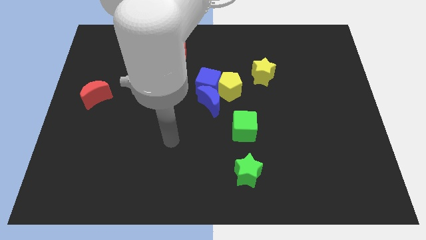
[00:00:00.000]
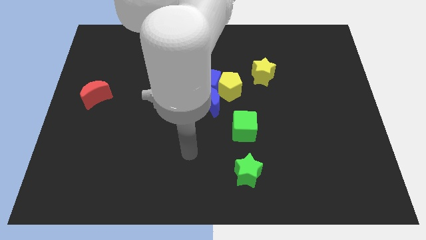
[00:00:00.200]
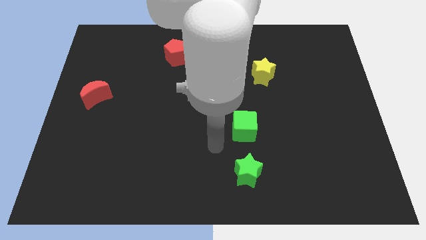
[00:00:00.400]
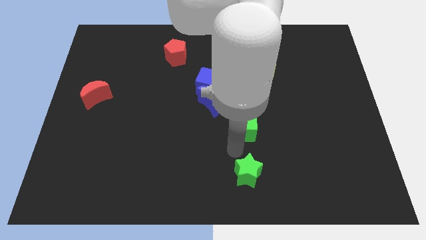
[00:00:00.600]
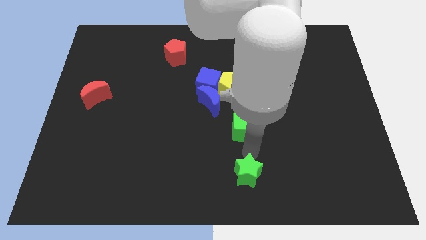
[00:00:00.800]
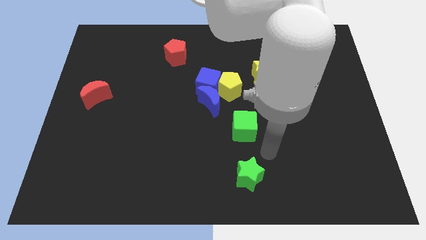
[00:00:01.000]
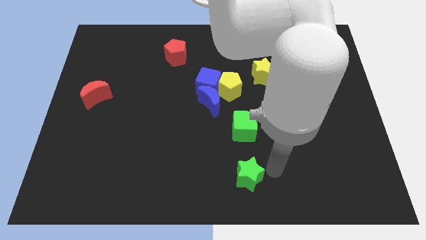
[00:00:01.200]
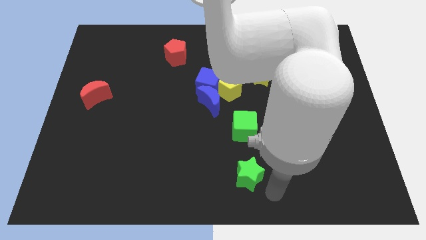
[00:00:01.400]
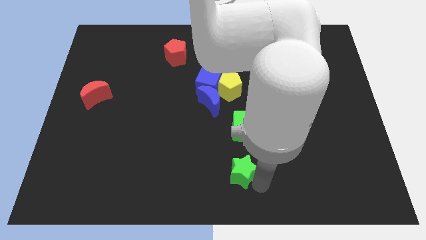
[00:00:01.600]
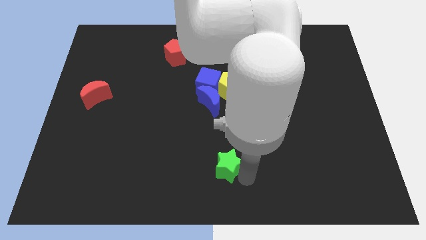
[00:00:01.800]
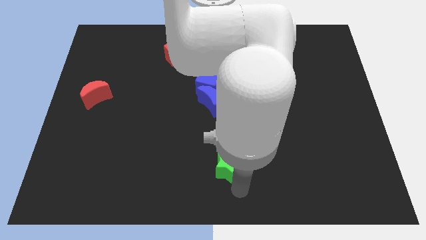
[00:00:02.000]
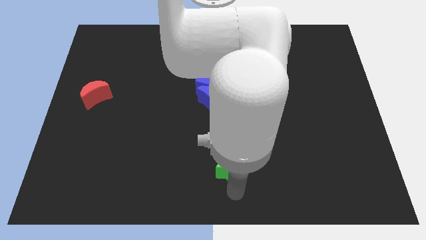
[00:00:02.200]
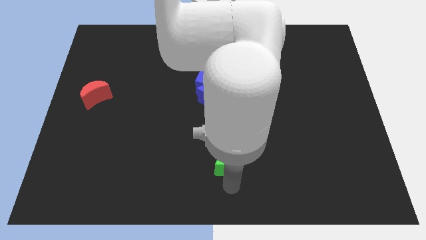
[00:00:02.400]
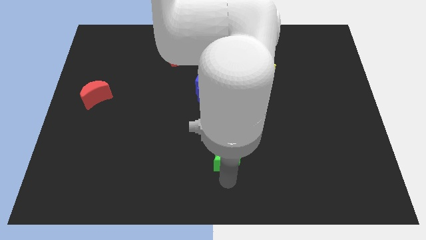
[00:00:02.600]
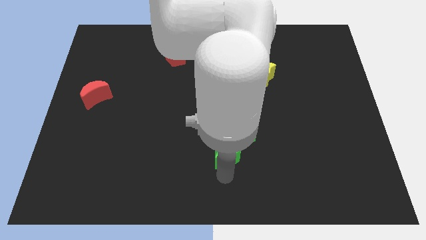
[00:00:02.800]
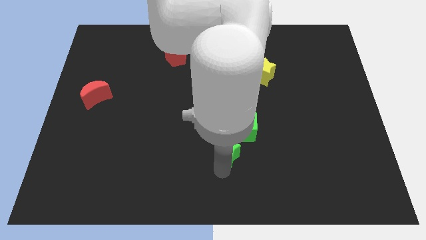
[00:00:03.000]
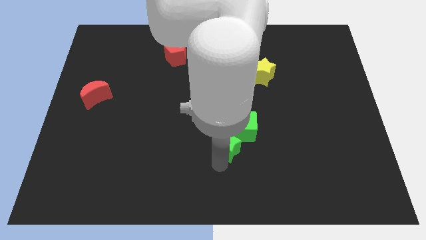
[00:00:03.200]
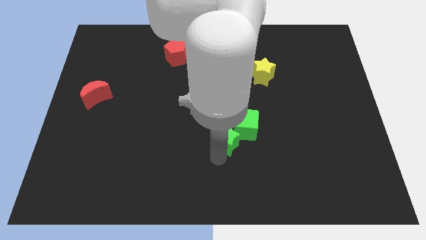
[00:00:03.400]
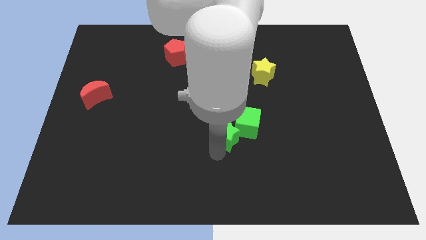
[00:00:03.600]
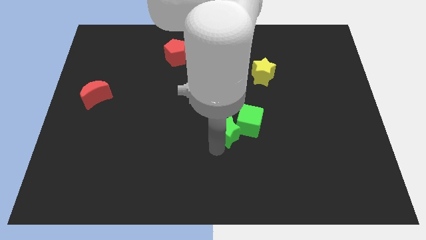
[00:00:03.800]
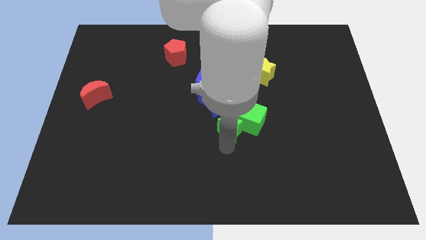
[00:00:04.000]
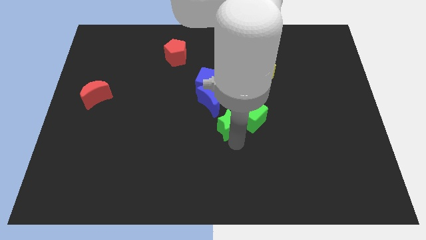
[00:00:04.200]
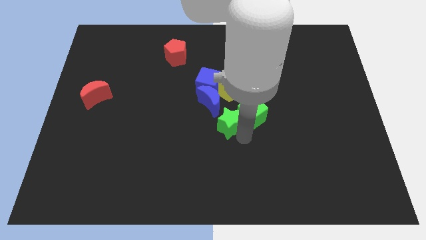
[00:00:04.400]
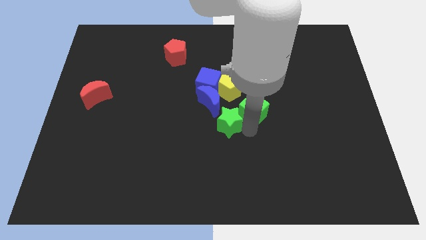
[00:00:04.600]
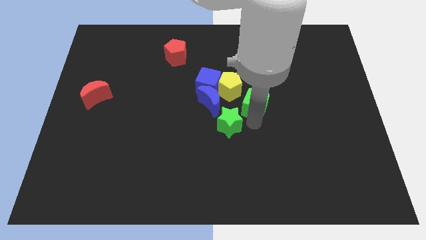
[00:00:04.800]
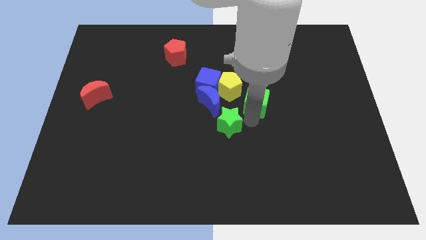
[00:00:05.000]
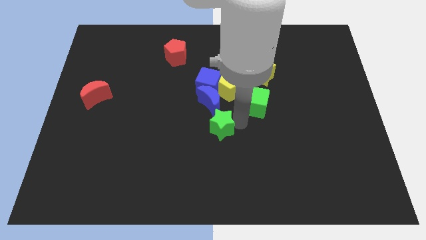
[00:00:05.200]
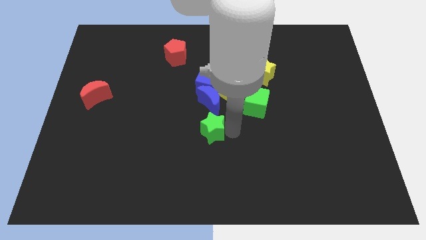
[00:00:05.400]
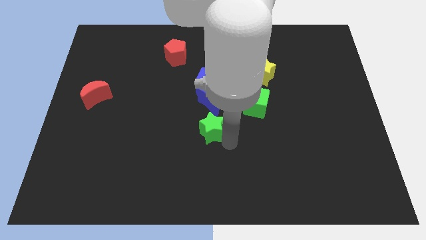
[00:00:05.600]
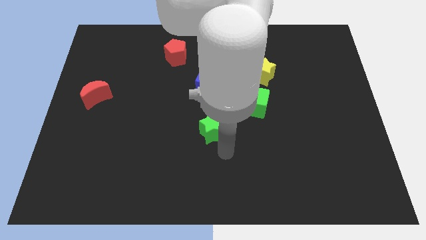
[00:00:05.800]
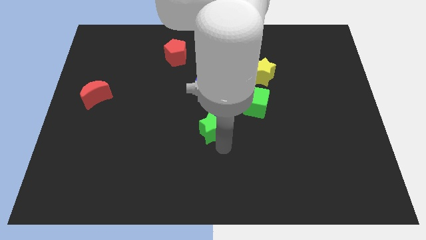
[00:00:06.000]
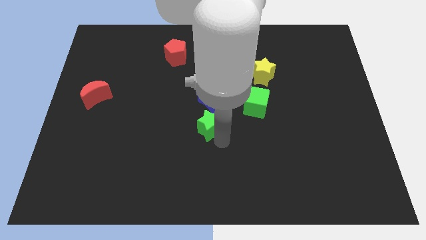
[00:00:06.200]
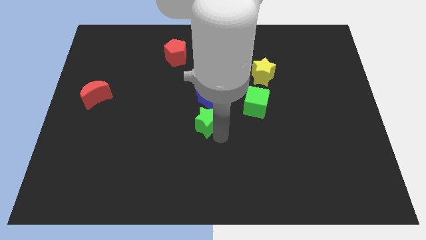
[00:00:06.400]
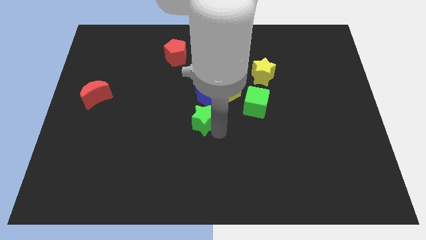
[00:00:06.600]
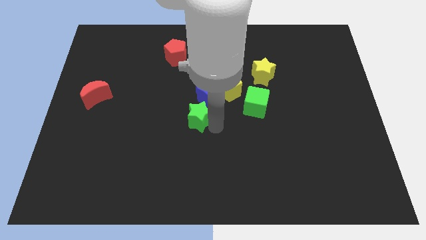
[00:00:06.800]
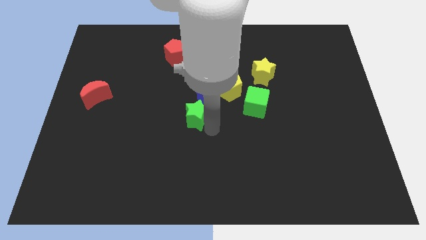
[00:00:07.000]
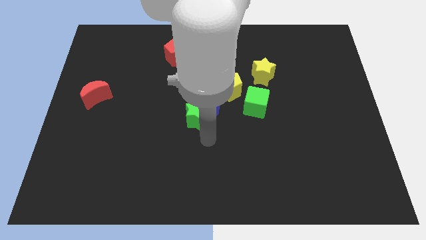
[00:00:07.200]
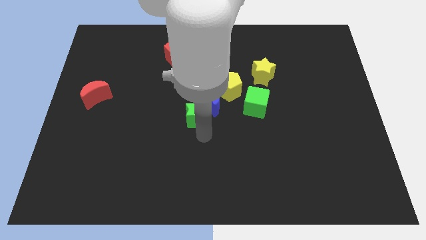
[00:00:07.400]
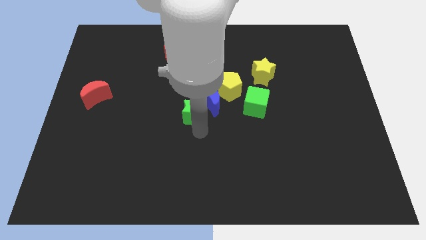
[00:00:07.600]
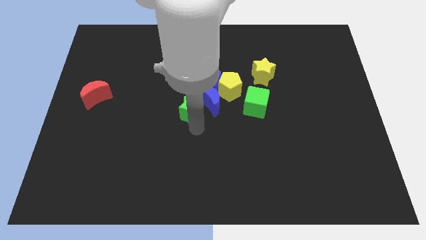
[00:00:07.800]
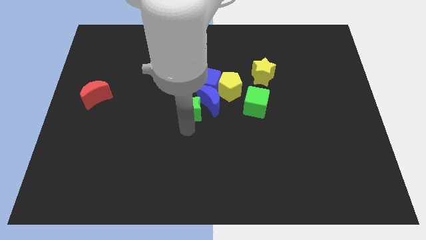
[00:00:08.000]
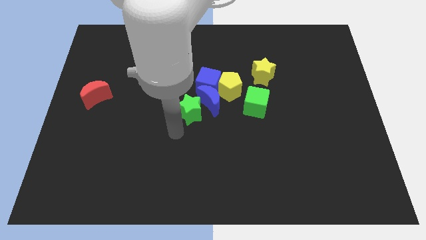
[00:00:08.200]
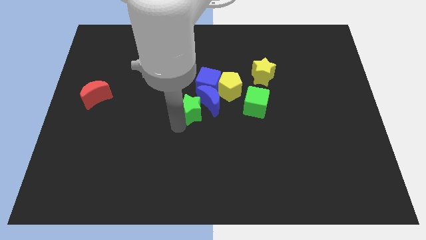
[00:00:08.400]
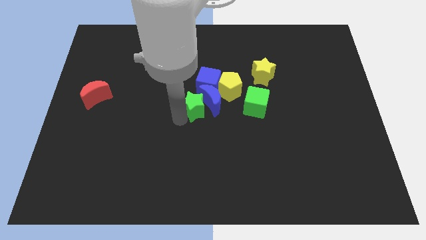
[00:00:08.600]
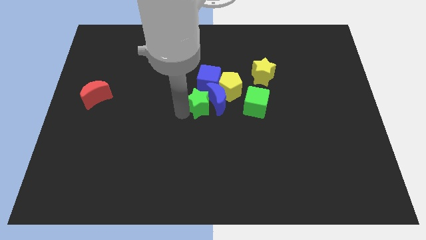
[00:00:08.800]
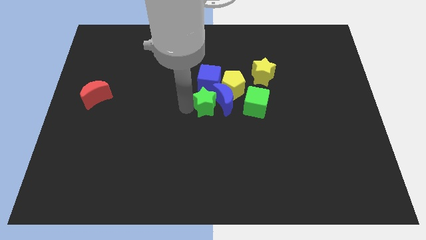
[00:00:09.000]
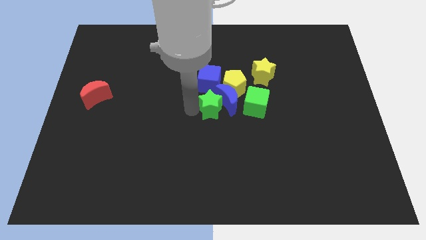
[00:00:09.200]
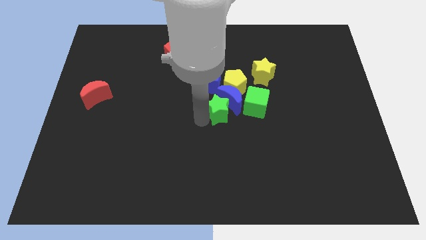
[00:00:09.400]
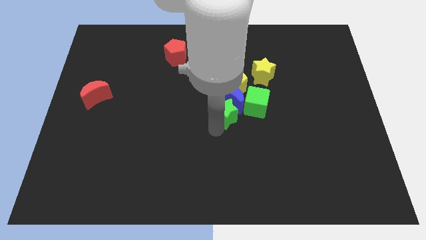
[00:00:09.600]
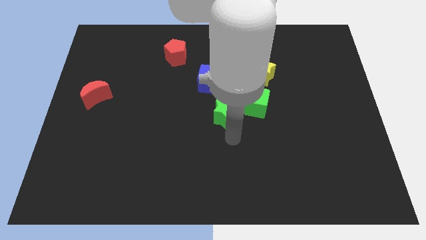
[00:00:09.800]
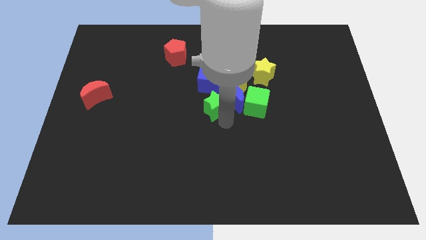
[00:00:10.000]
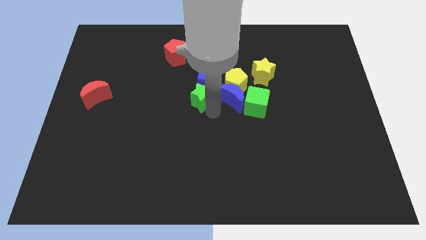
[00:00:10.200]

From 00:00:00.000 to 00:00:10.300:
move the green star to the blue cube

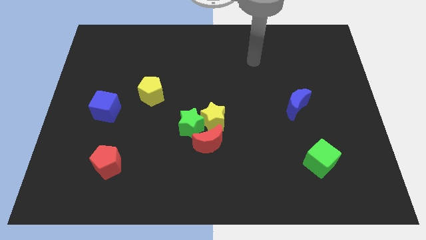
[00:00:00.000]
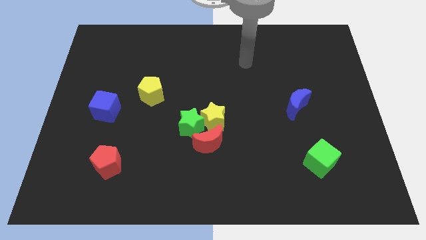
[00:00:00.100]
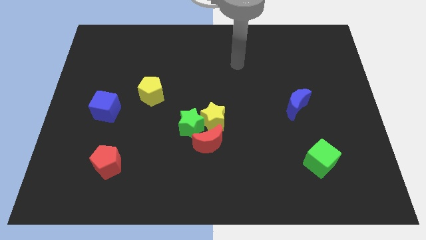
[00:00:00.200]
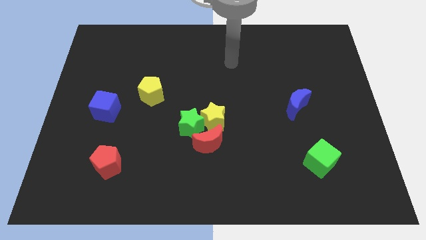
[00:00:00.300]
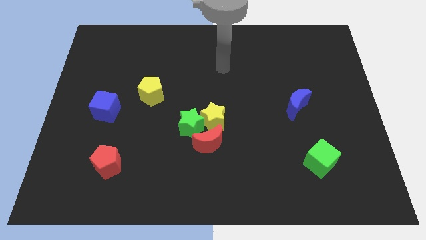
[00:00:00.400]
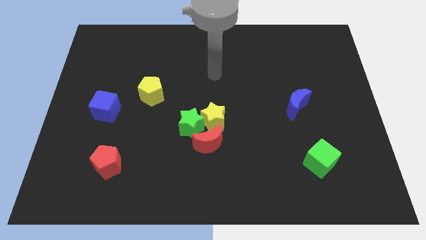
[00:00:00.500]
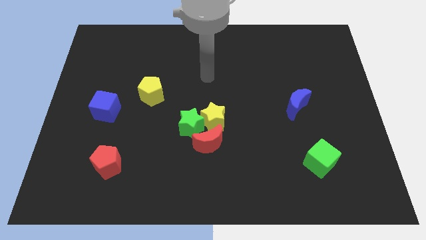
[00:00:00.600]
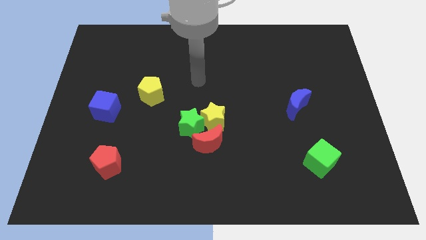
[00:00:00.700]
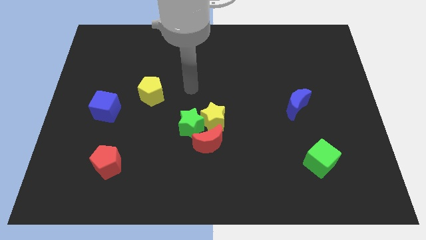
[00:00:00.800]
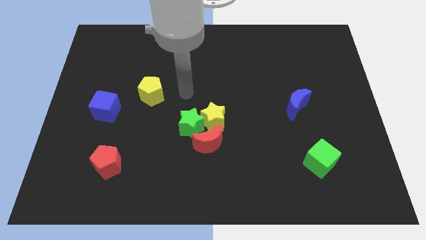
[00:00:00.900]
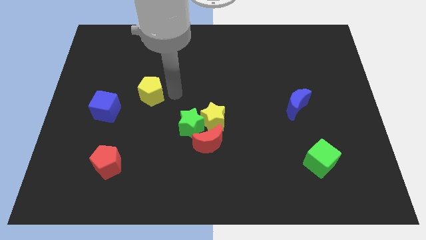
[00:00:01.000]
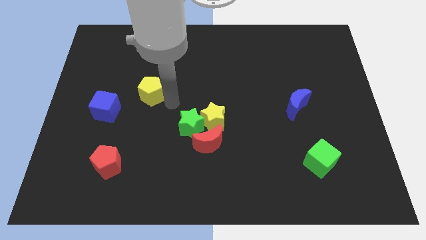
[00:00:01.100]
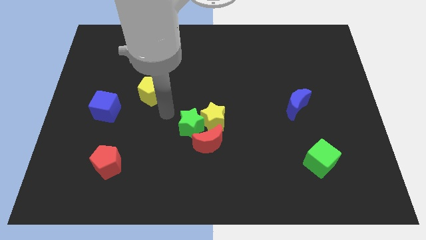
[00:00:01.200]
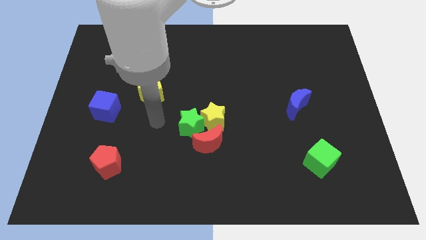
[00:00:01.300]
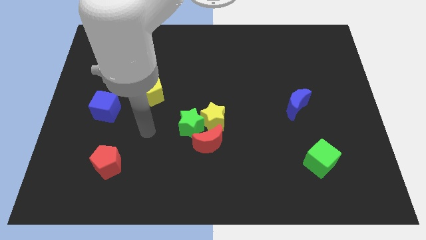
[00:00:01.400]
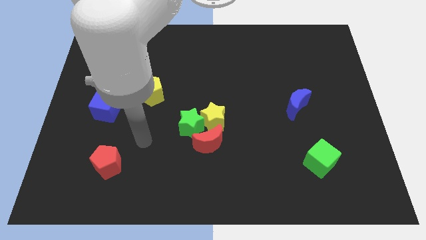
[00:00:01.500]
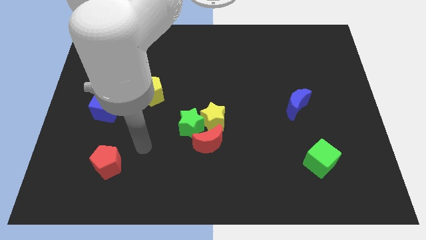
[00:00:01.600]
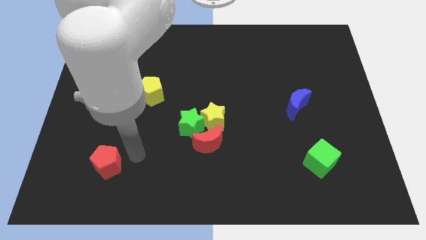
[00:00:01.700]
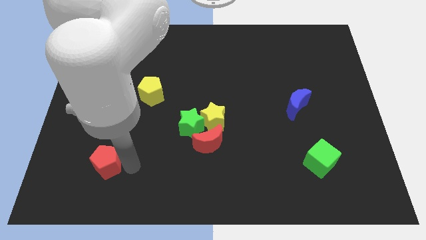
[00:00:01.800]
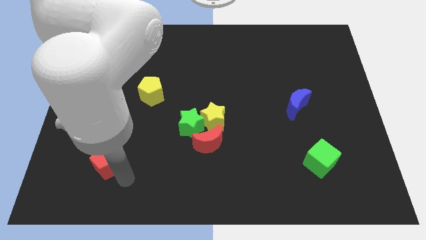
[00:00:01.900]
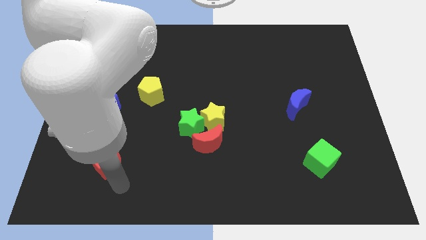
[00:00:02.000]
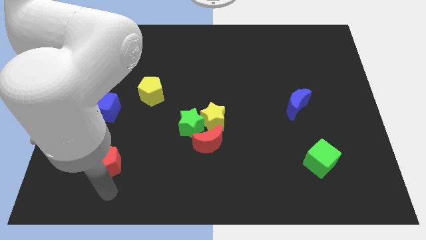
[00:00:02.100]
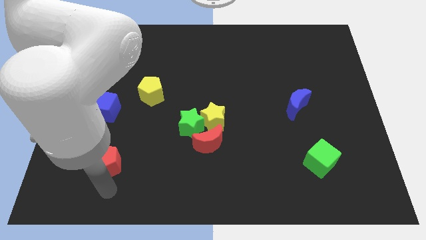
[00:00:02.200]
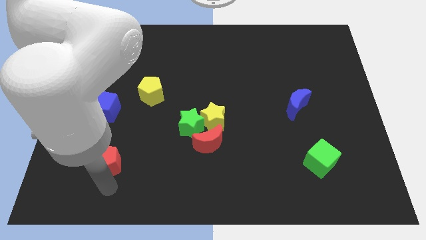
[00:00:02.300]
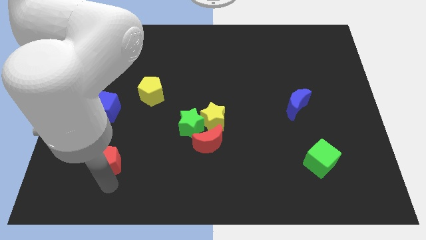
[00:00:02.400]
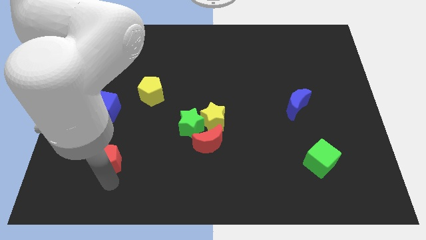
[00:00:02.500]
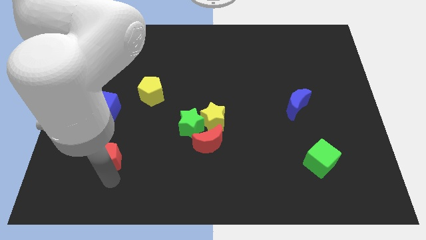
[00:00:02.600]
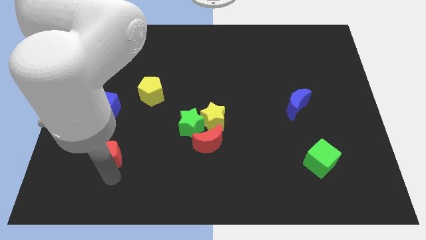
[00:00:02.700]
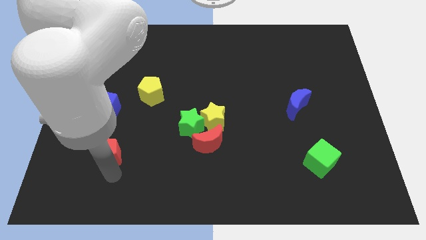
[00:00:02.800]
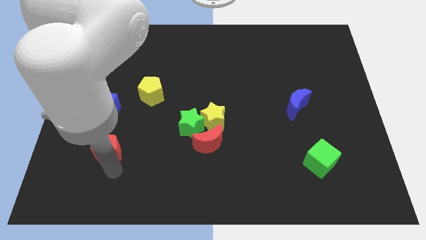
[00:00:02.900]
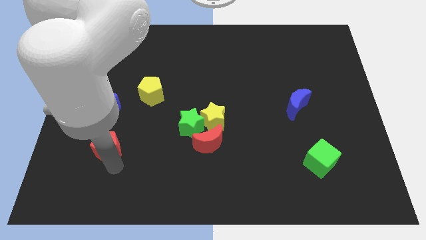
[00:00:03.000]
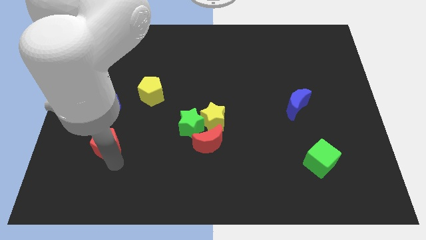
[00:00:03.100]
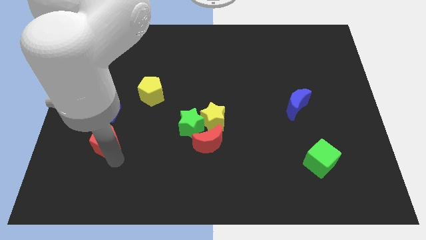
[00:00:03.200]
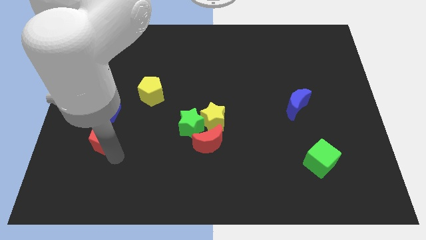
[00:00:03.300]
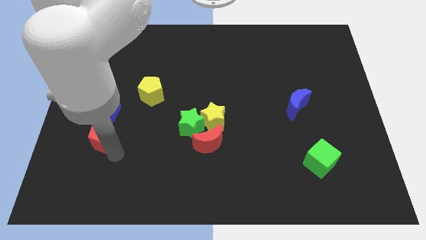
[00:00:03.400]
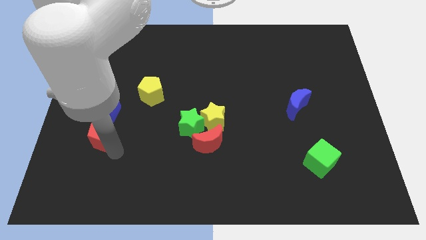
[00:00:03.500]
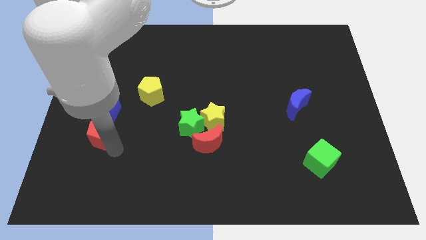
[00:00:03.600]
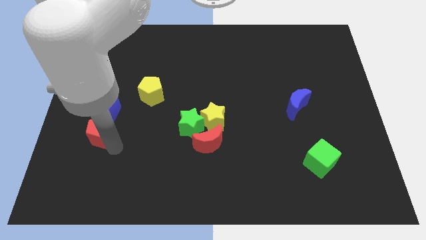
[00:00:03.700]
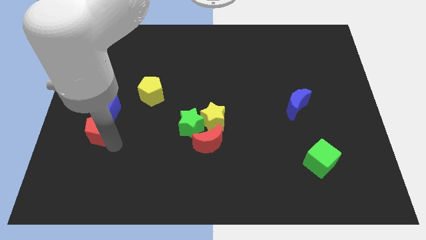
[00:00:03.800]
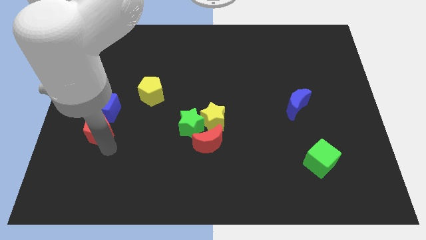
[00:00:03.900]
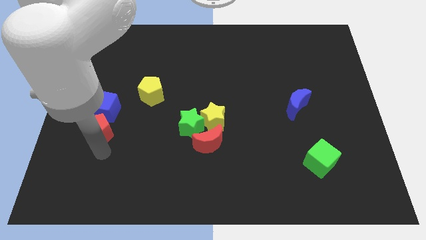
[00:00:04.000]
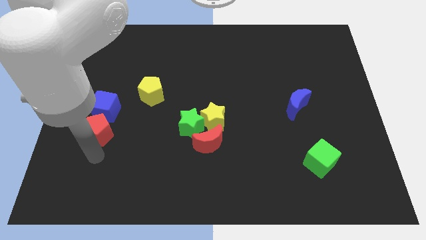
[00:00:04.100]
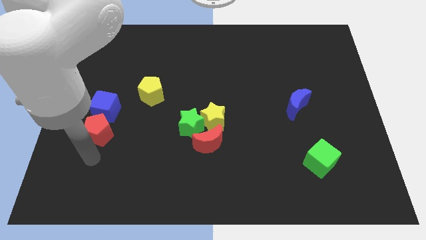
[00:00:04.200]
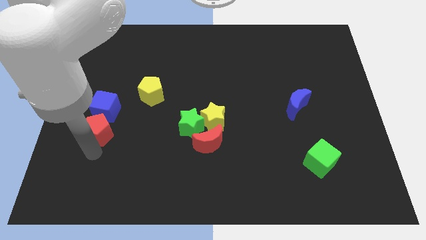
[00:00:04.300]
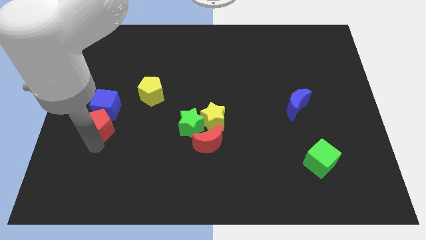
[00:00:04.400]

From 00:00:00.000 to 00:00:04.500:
push the red pentagon towards the blue cube
